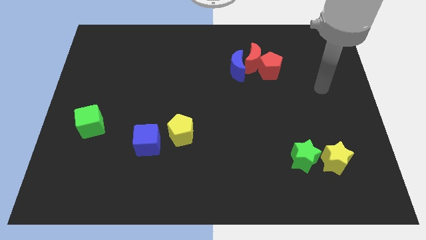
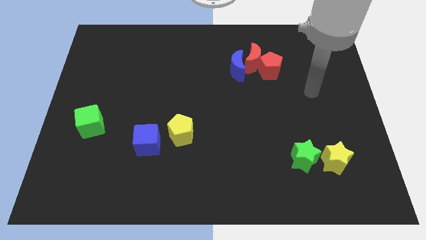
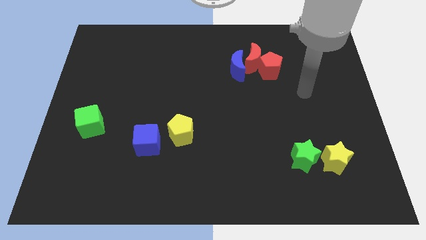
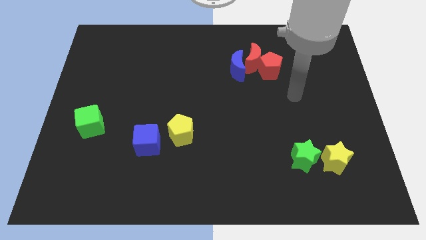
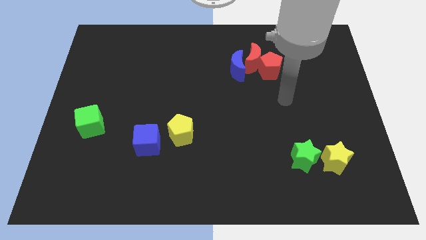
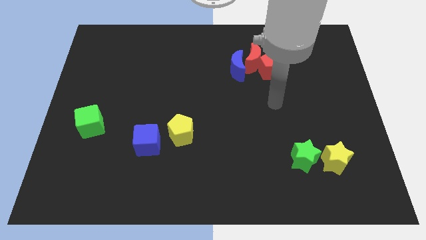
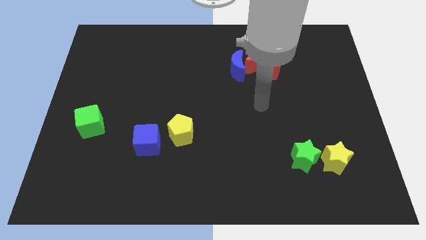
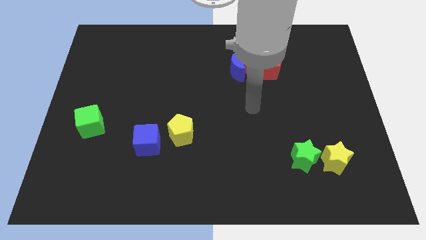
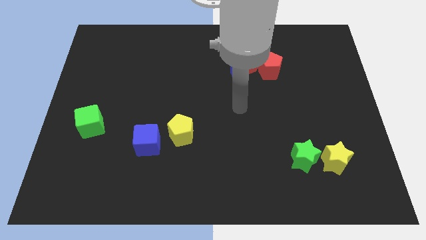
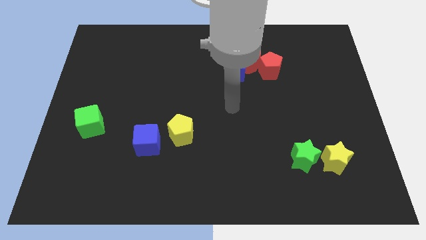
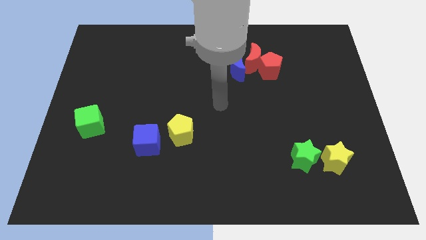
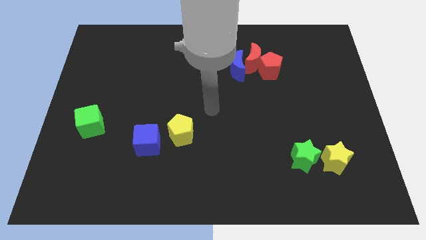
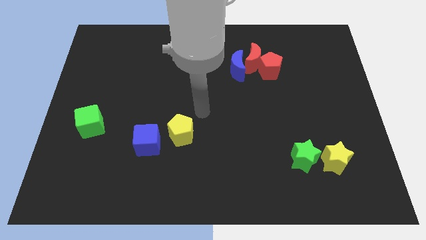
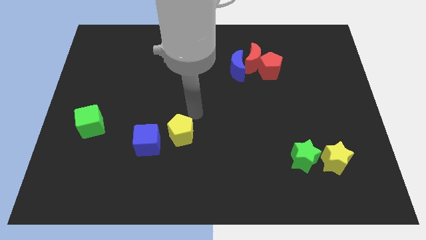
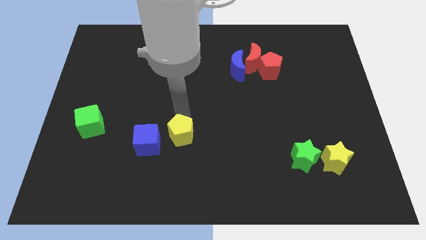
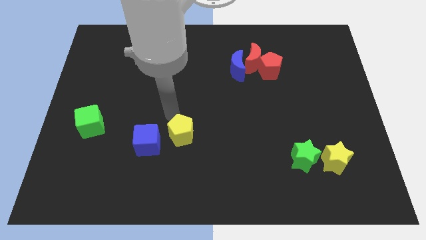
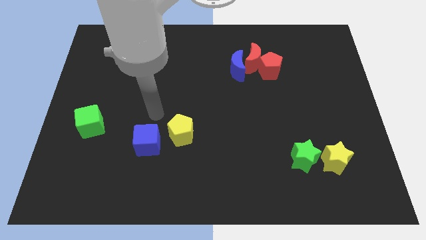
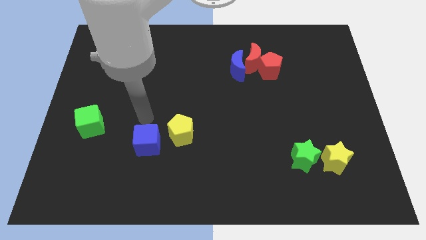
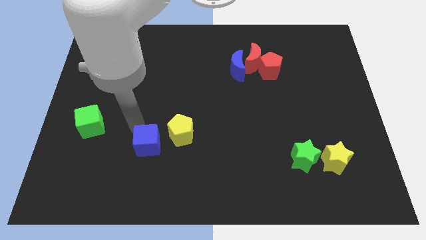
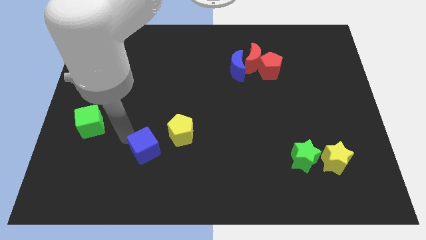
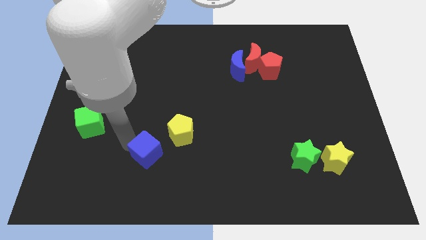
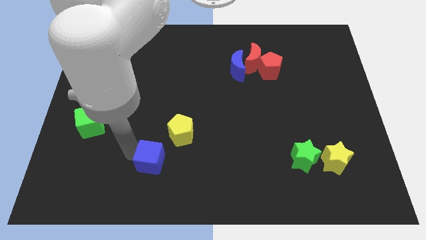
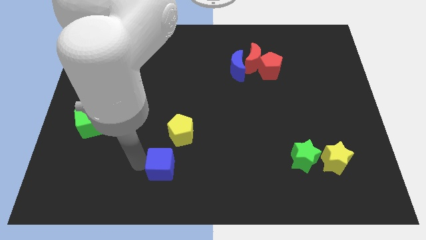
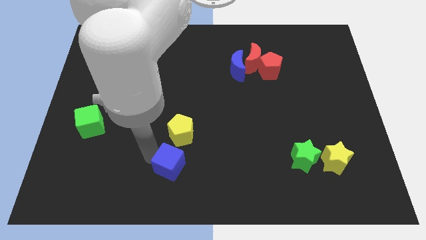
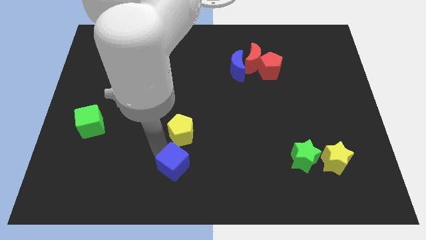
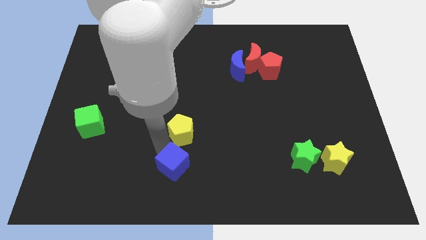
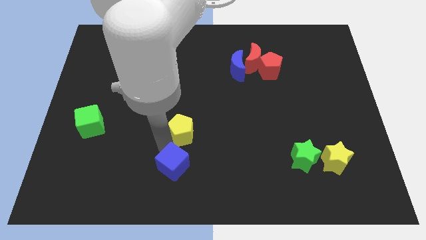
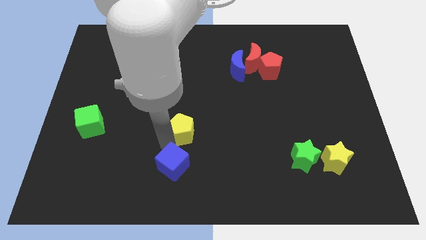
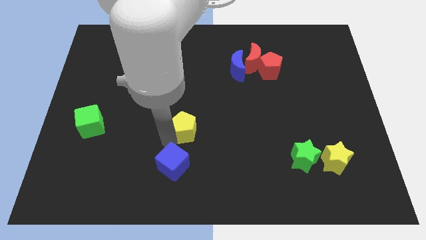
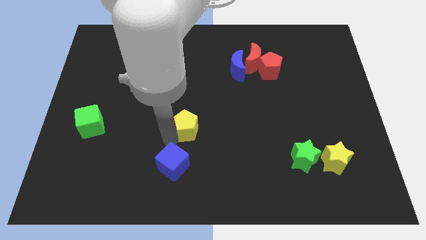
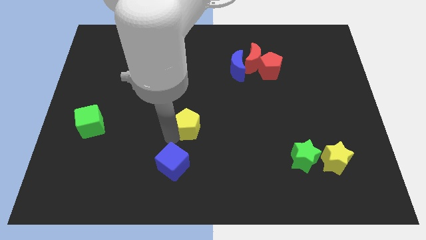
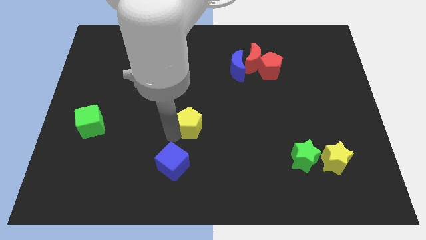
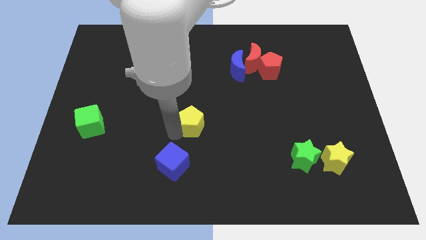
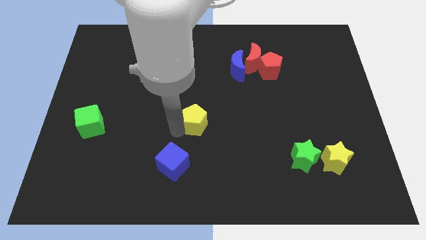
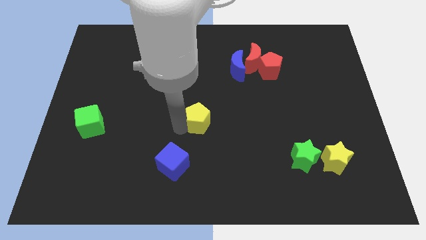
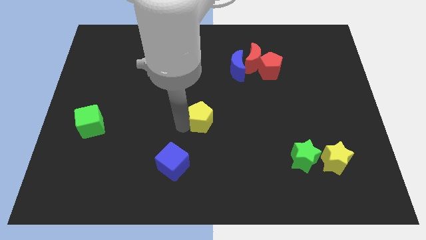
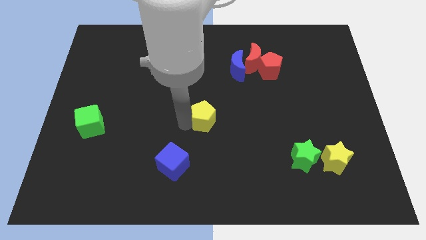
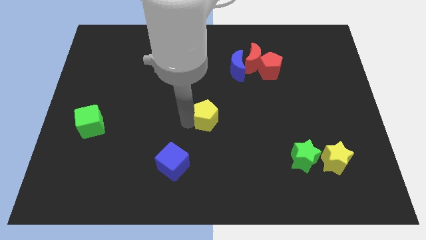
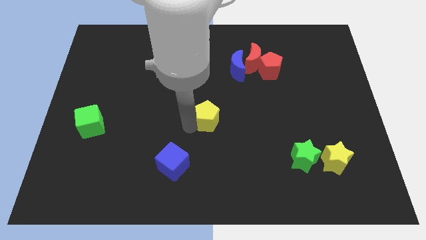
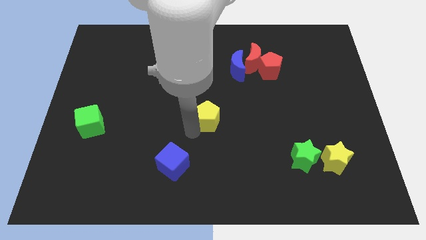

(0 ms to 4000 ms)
slightly move the yellow pentagon up and right

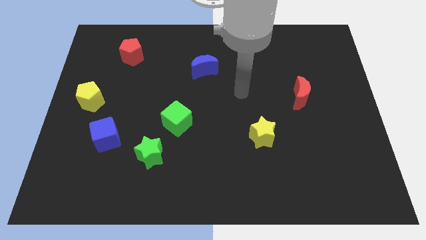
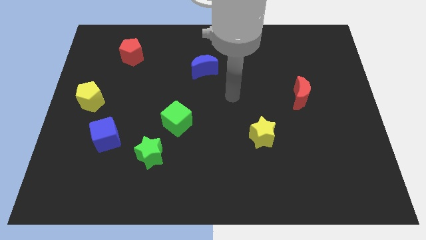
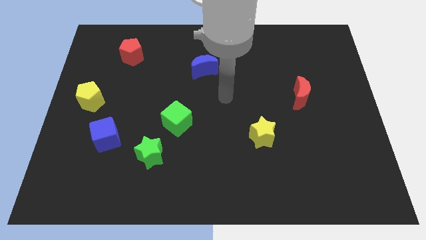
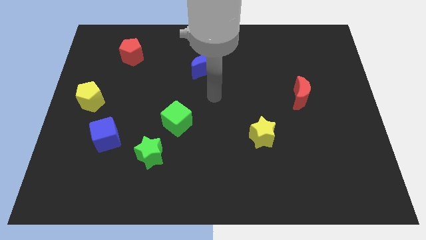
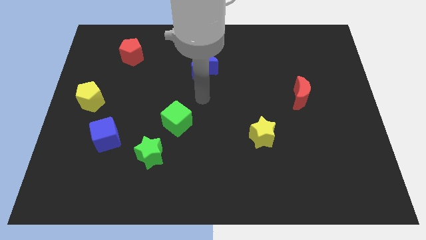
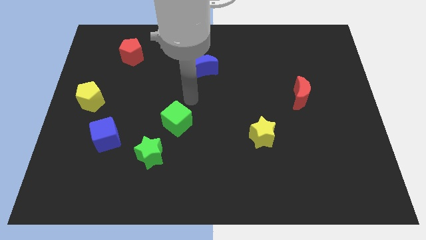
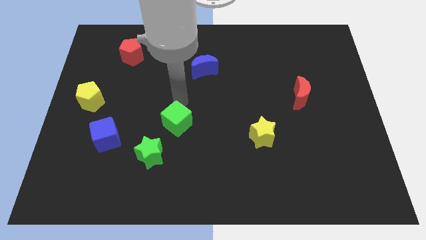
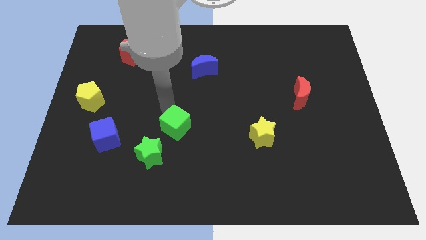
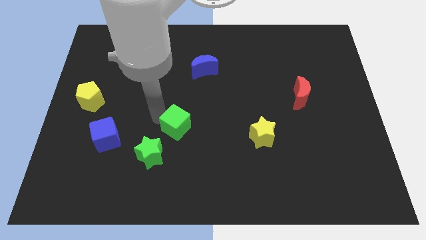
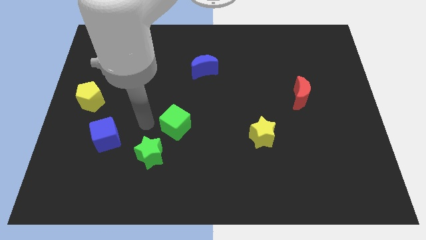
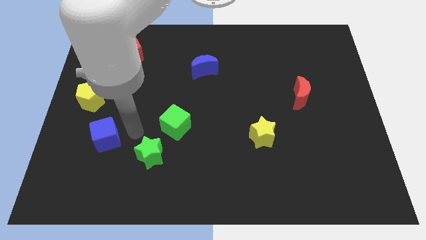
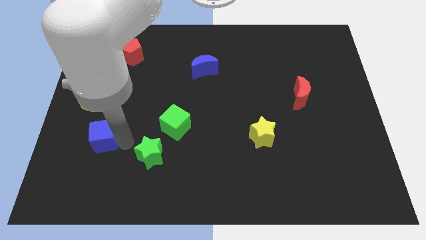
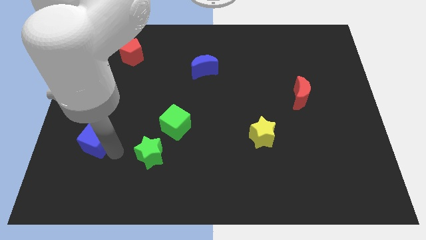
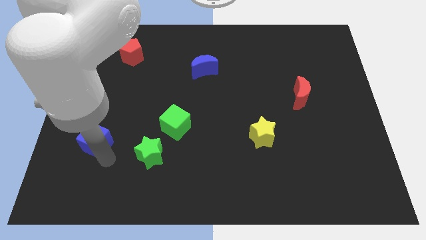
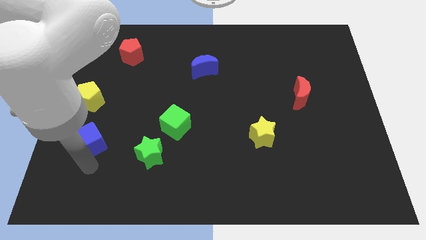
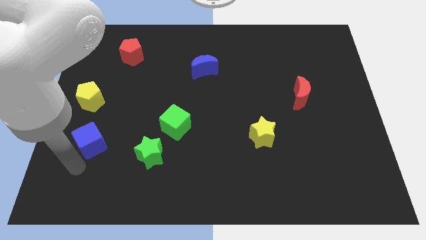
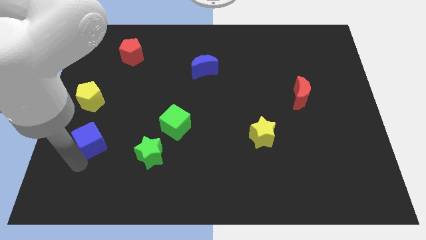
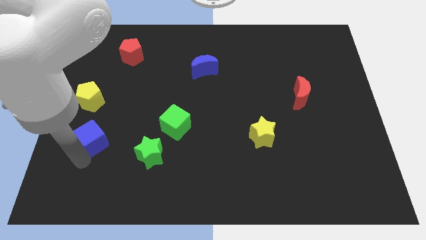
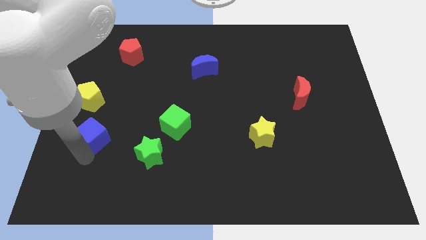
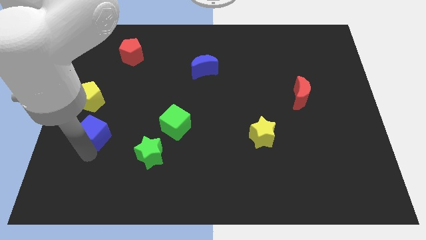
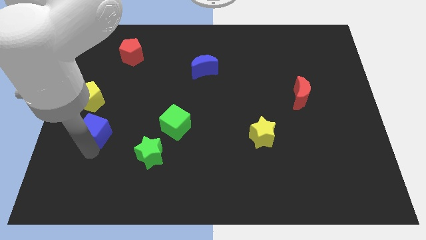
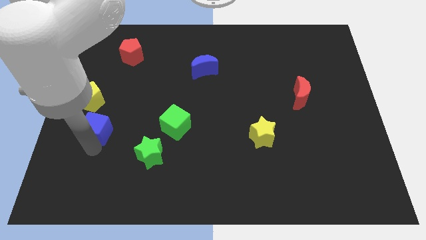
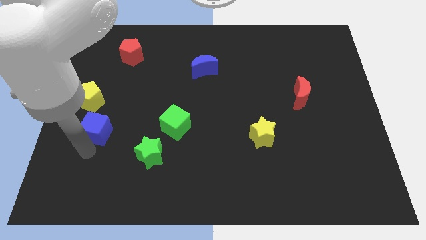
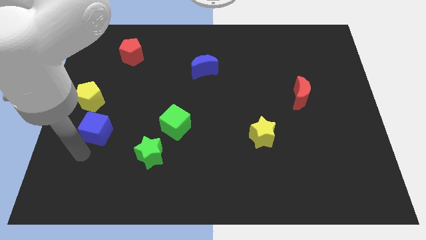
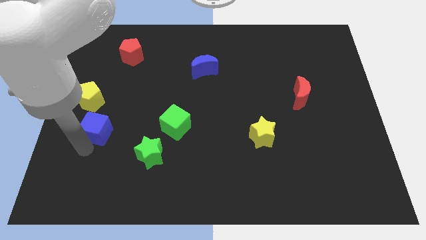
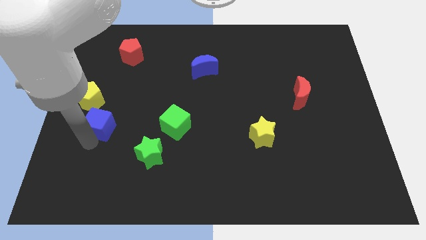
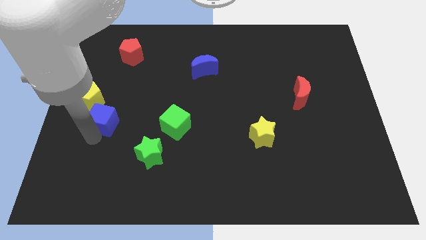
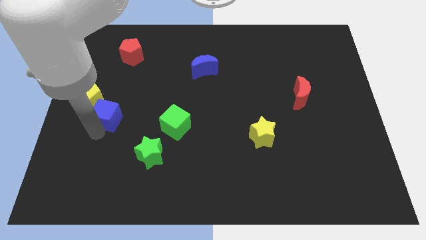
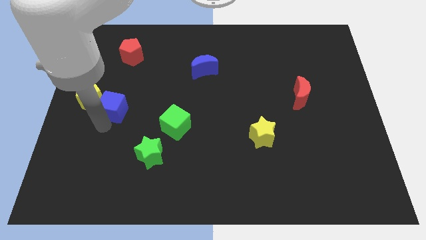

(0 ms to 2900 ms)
slightly push the blue cube up
